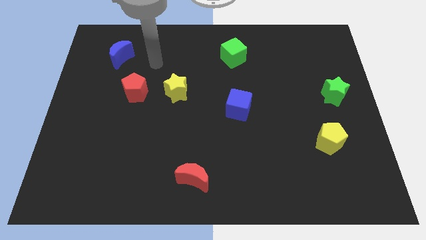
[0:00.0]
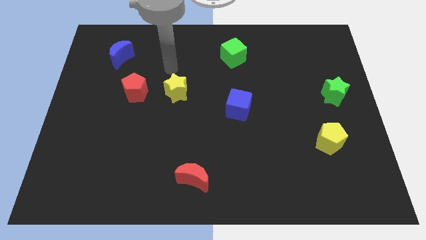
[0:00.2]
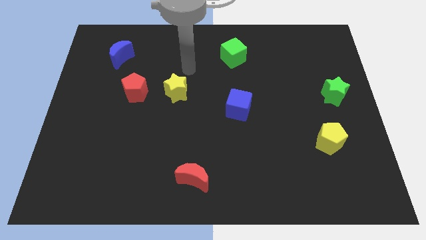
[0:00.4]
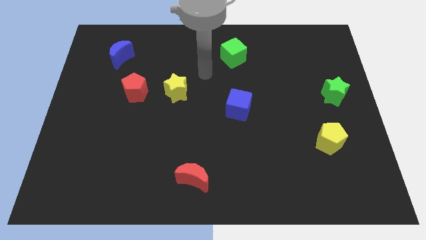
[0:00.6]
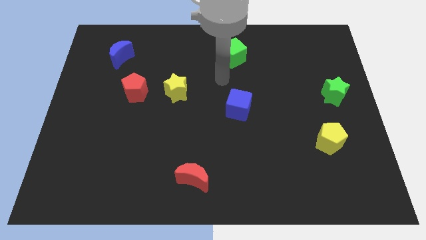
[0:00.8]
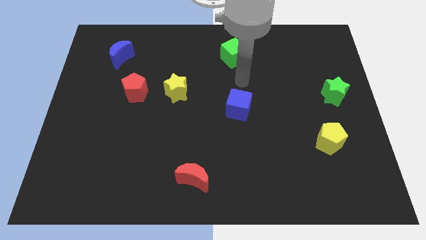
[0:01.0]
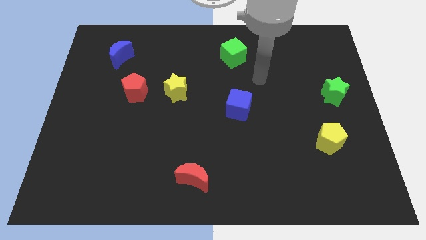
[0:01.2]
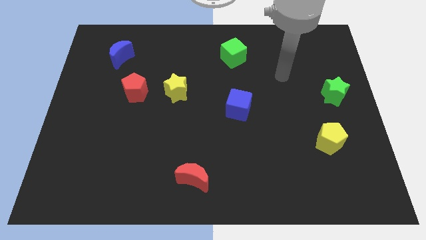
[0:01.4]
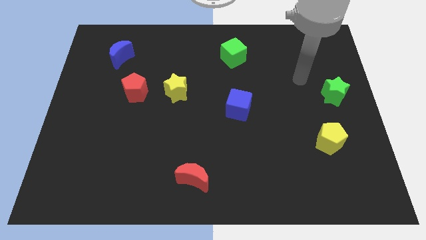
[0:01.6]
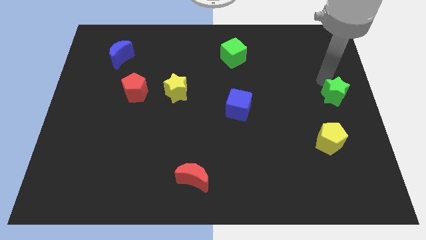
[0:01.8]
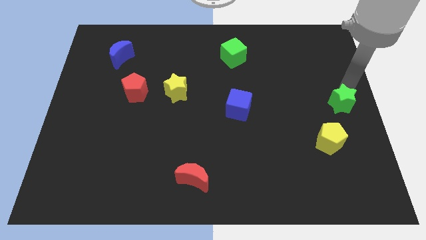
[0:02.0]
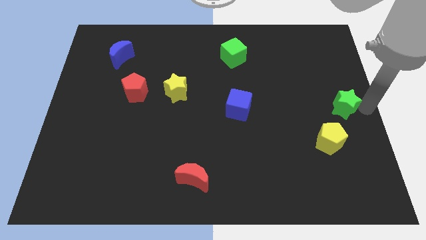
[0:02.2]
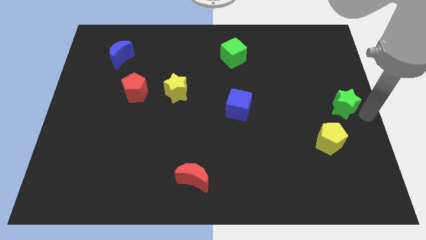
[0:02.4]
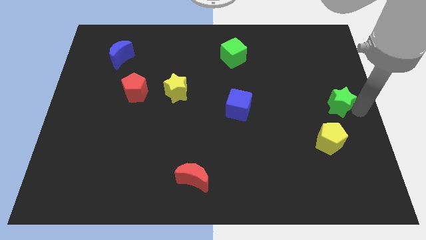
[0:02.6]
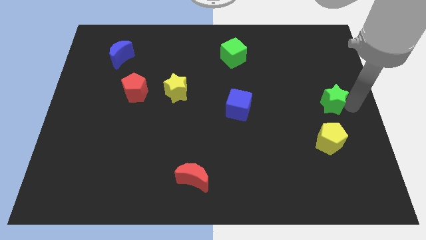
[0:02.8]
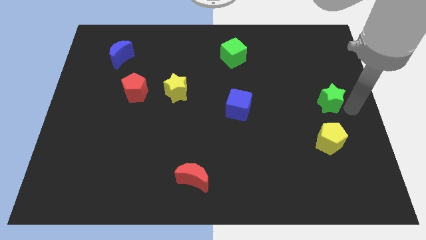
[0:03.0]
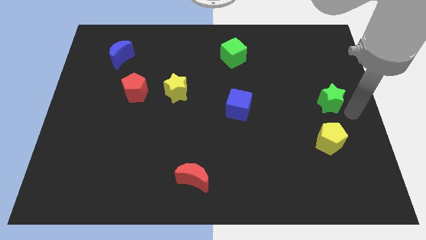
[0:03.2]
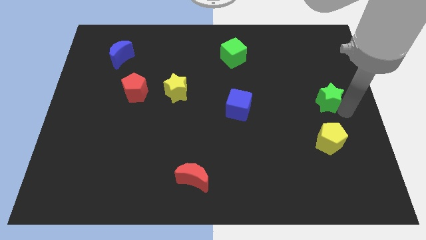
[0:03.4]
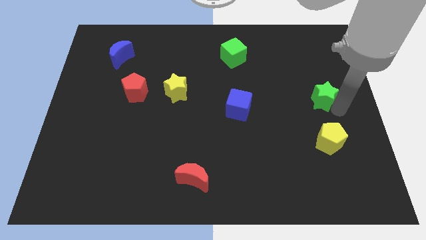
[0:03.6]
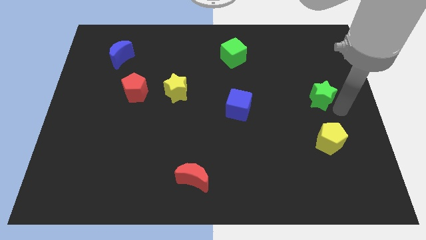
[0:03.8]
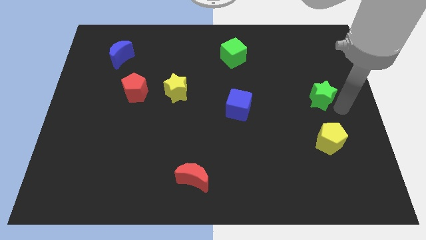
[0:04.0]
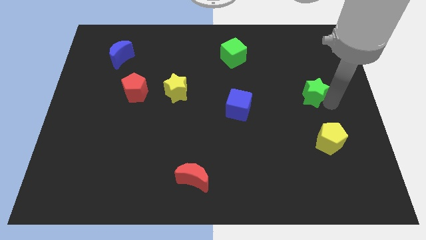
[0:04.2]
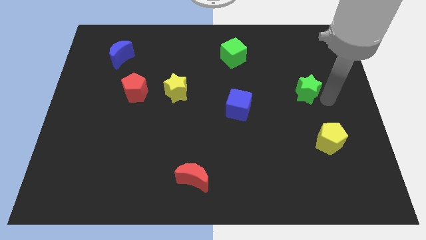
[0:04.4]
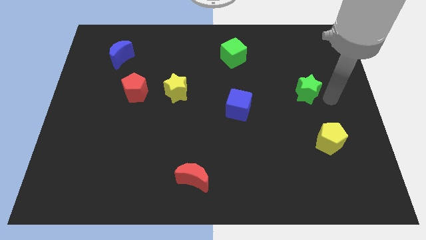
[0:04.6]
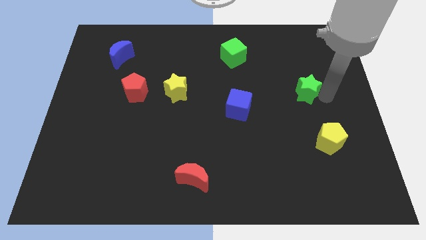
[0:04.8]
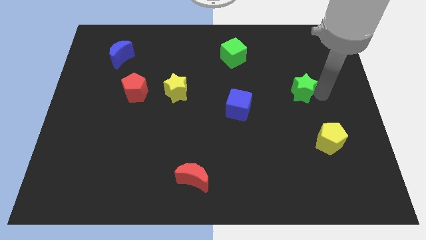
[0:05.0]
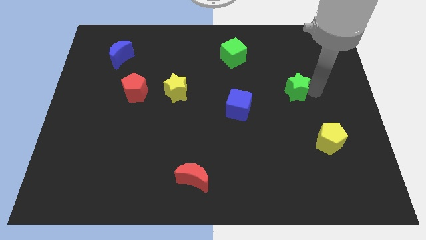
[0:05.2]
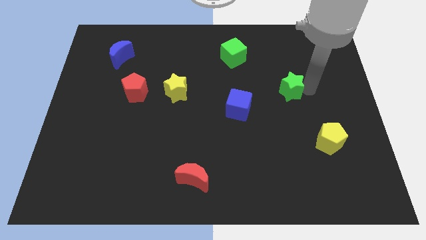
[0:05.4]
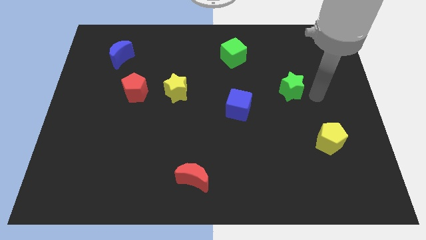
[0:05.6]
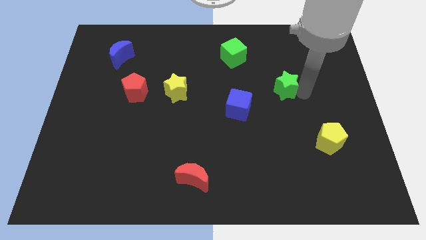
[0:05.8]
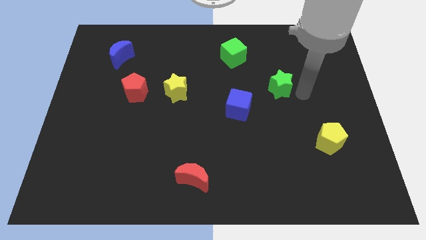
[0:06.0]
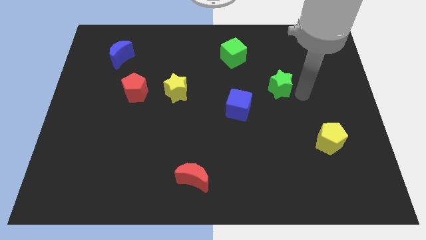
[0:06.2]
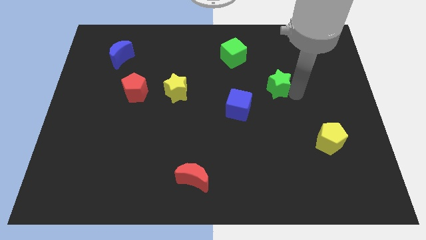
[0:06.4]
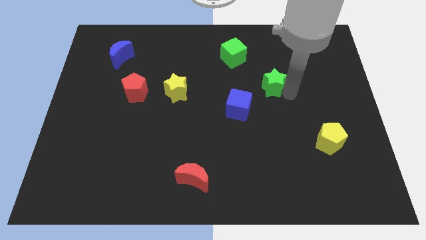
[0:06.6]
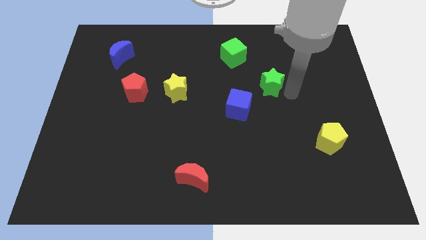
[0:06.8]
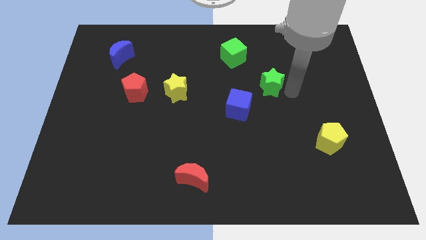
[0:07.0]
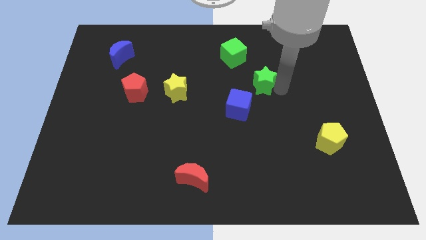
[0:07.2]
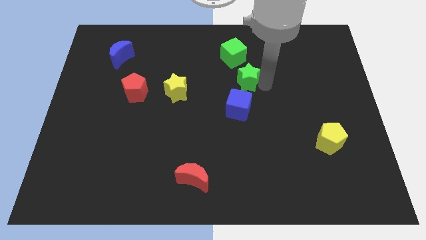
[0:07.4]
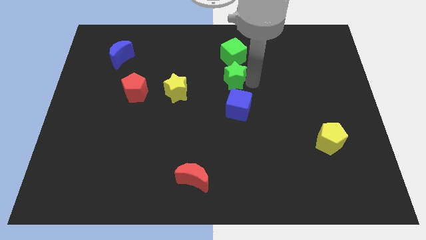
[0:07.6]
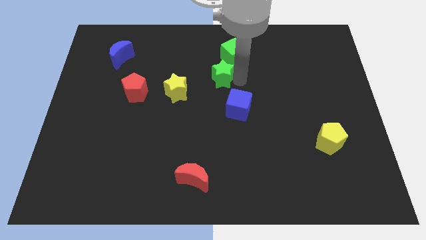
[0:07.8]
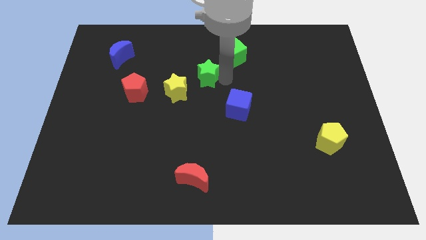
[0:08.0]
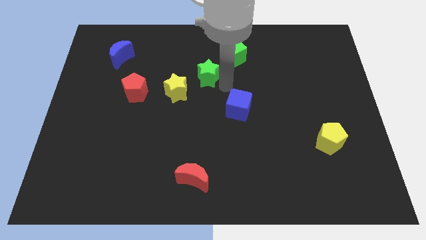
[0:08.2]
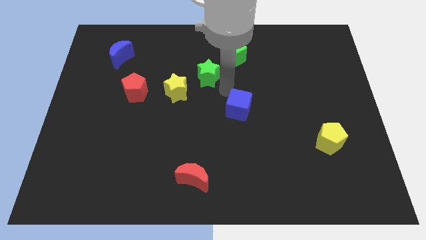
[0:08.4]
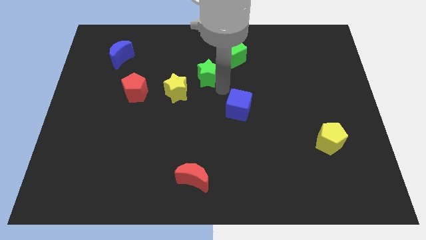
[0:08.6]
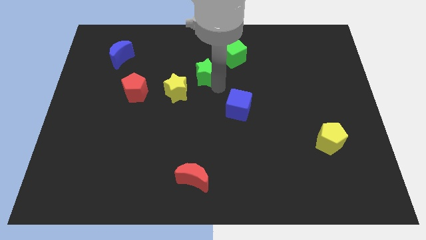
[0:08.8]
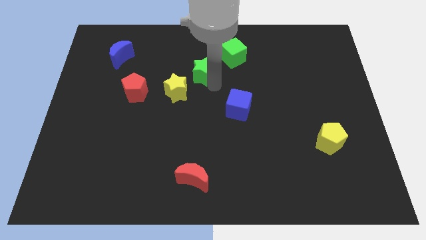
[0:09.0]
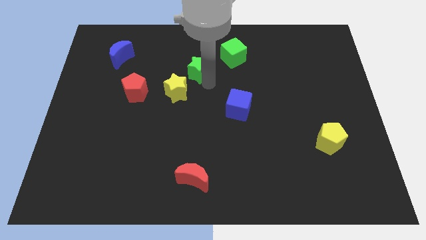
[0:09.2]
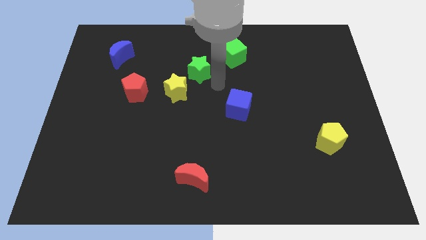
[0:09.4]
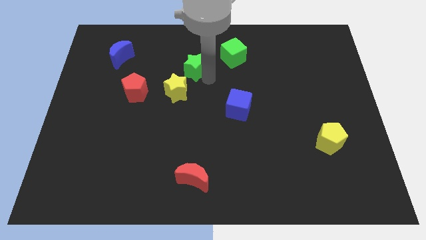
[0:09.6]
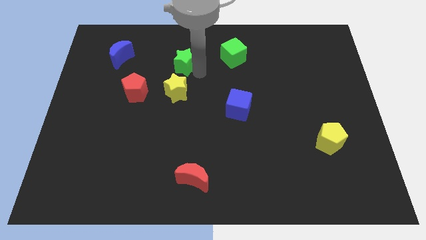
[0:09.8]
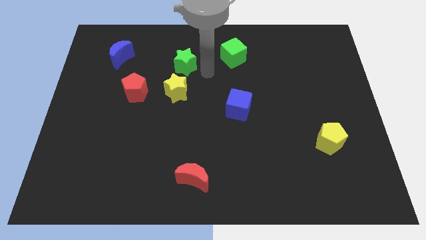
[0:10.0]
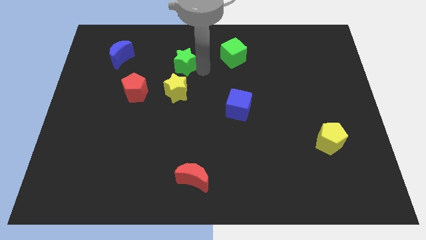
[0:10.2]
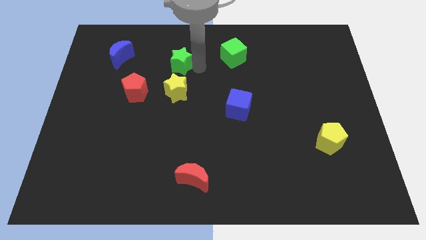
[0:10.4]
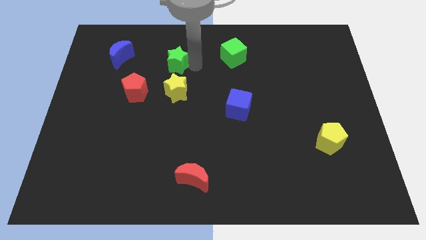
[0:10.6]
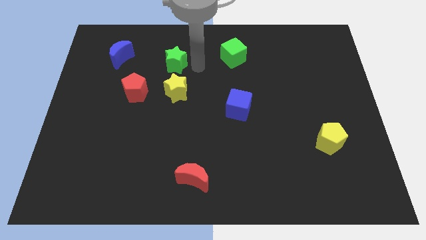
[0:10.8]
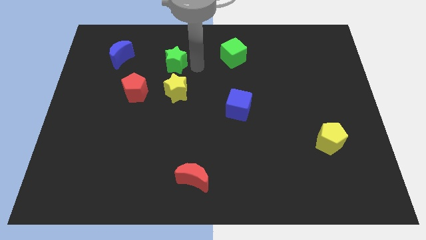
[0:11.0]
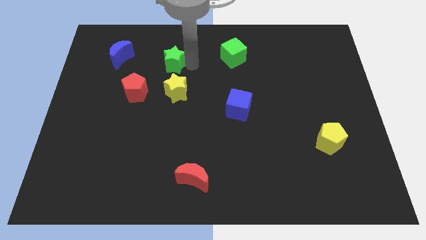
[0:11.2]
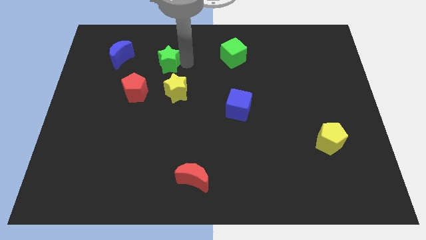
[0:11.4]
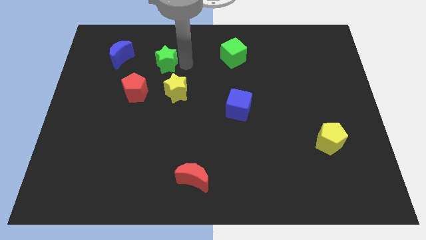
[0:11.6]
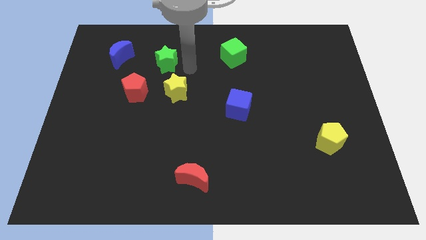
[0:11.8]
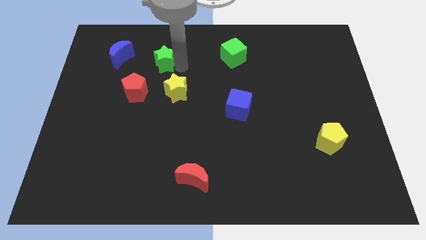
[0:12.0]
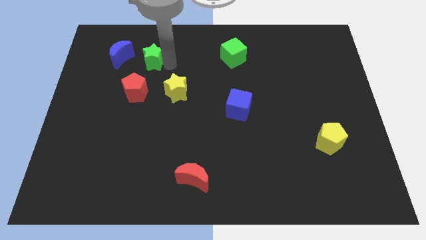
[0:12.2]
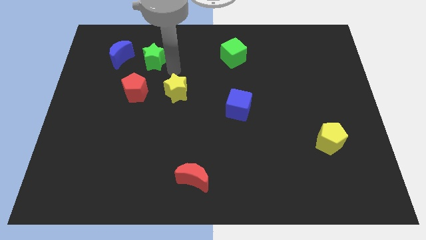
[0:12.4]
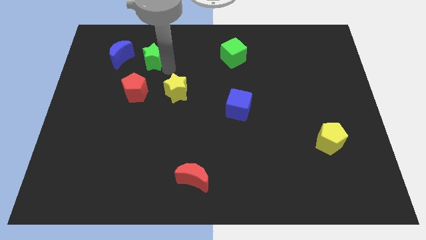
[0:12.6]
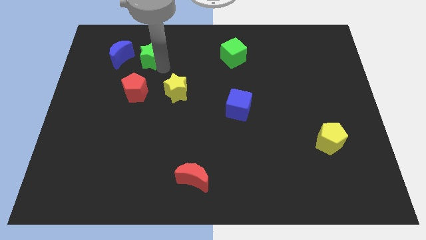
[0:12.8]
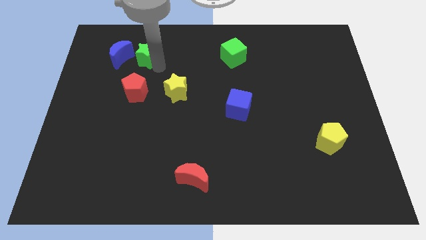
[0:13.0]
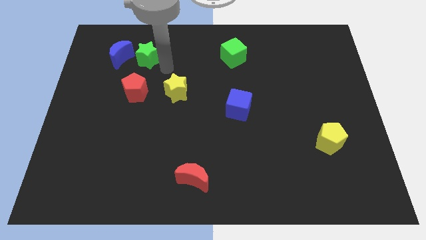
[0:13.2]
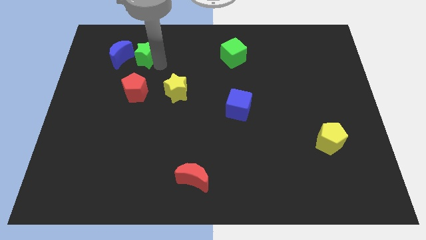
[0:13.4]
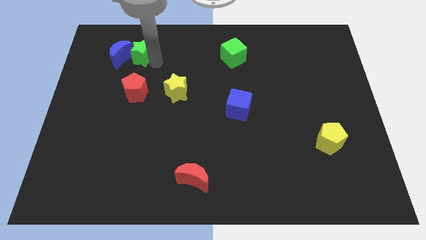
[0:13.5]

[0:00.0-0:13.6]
put the green star next to the blue moon
